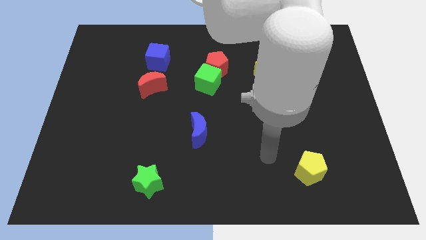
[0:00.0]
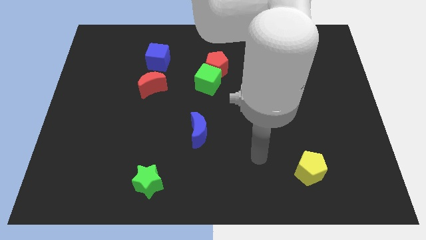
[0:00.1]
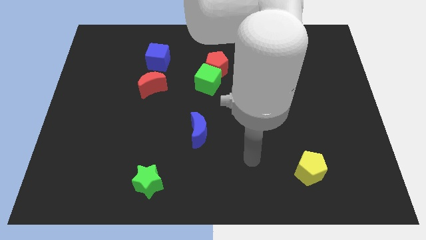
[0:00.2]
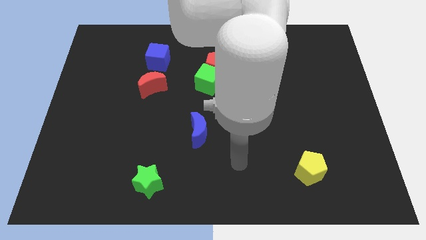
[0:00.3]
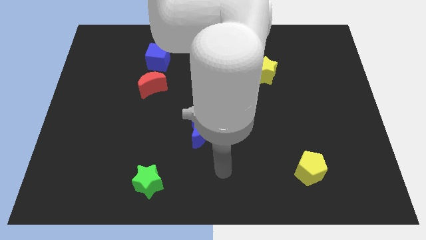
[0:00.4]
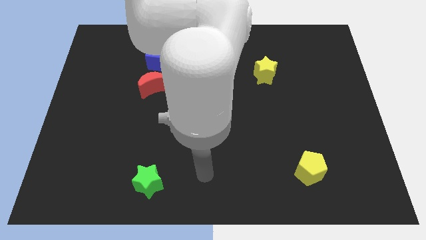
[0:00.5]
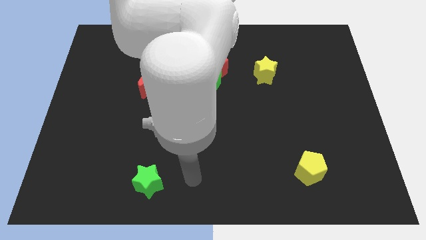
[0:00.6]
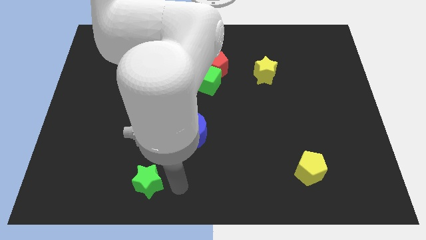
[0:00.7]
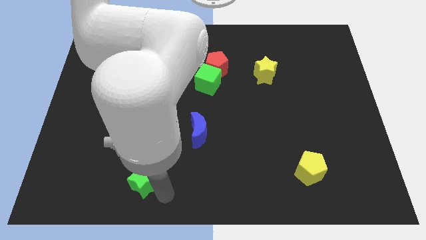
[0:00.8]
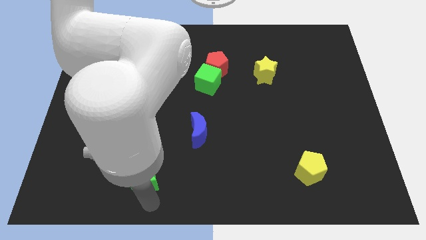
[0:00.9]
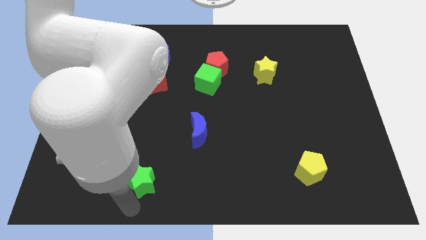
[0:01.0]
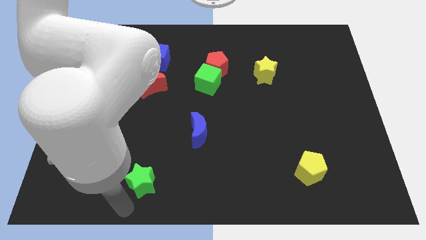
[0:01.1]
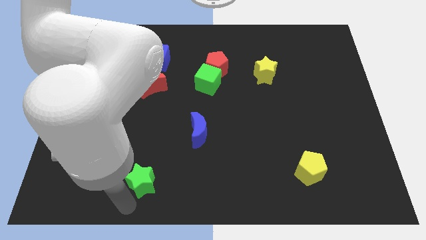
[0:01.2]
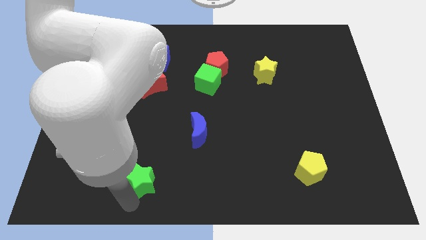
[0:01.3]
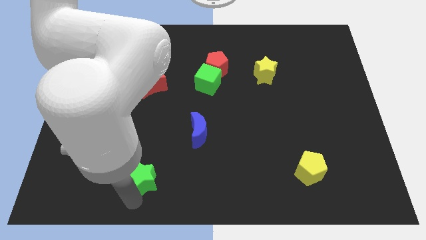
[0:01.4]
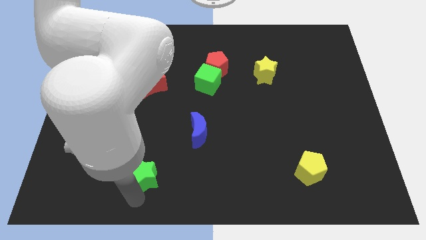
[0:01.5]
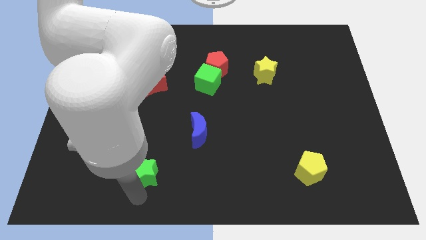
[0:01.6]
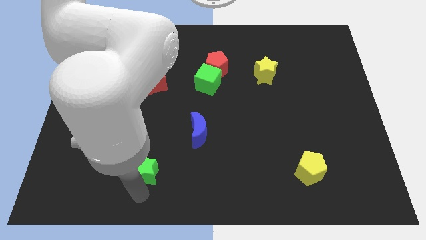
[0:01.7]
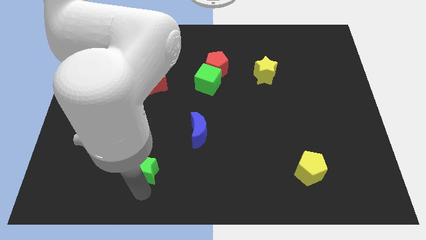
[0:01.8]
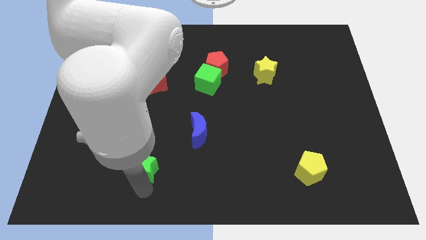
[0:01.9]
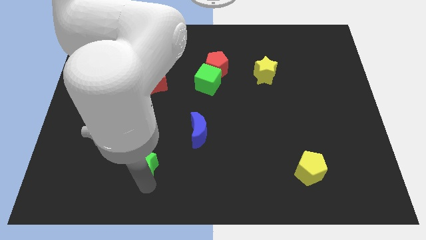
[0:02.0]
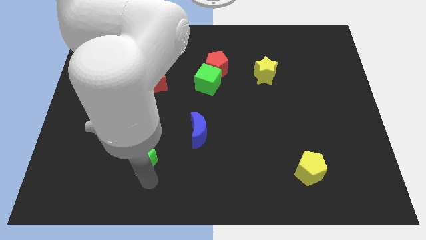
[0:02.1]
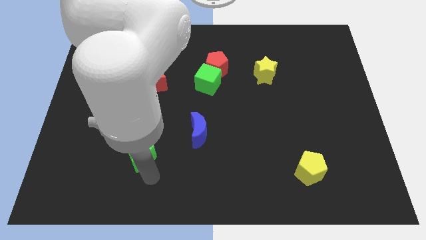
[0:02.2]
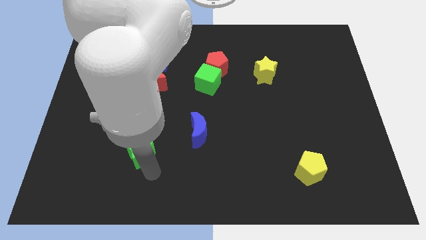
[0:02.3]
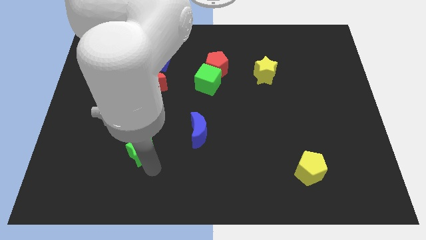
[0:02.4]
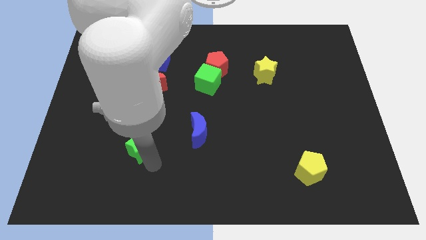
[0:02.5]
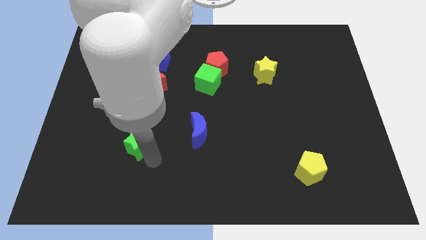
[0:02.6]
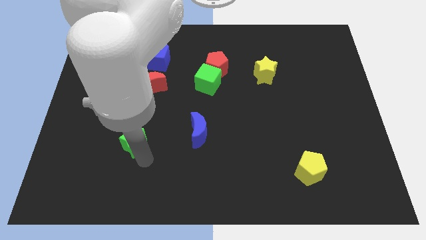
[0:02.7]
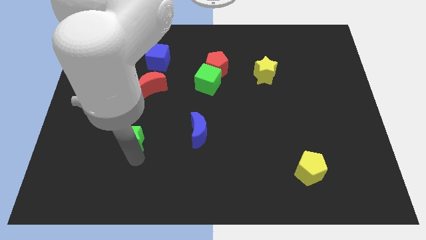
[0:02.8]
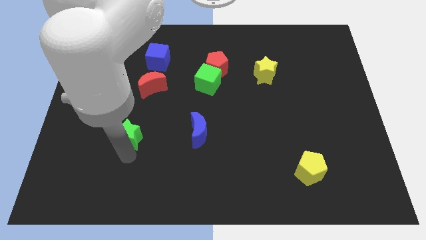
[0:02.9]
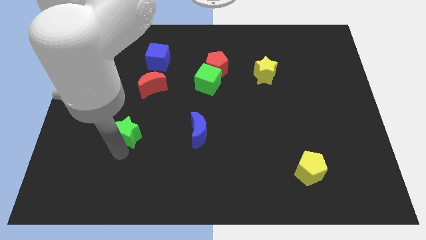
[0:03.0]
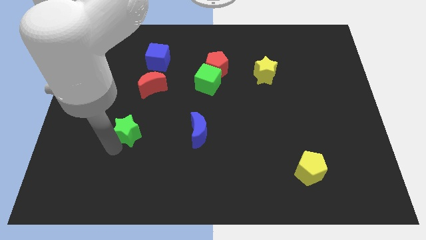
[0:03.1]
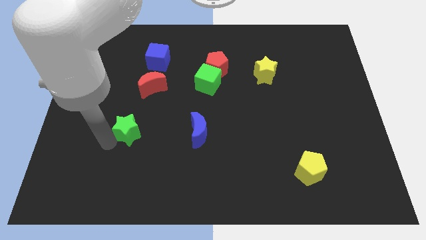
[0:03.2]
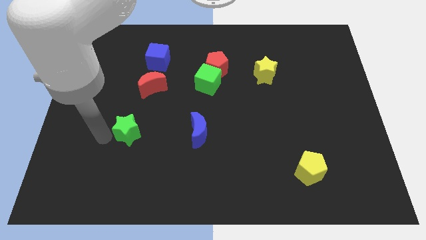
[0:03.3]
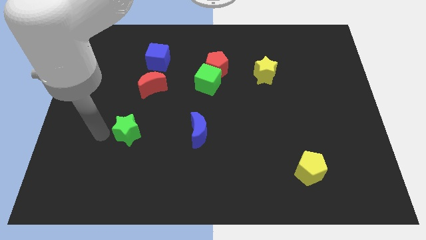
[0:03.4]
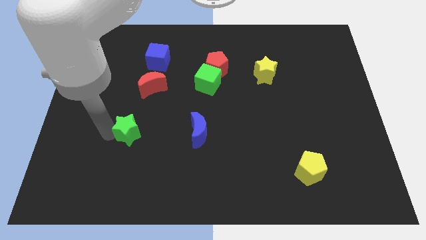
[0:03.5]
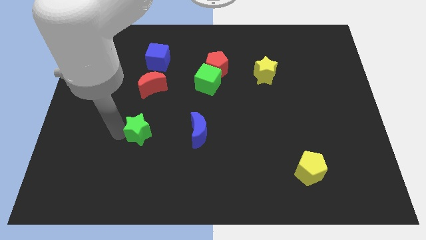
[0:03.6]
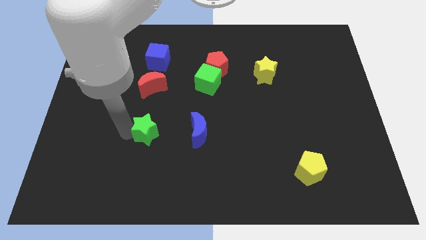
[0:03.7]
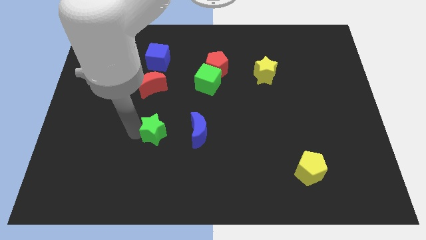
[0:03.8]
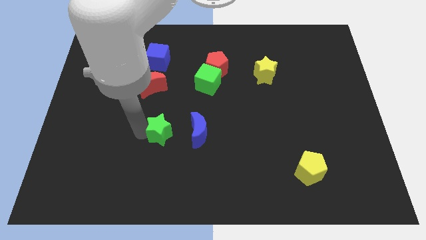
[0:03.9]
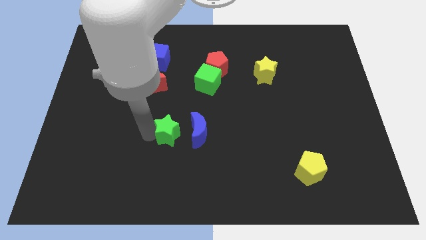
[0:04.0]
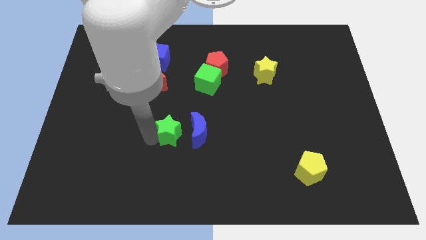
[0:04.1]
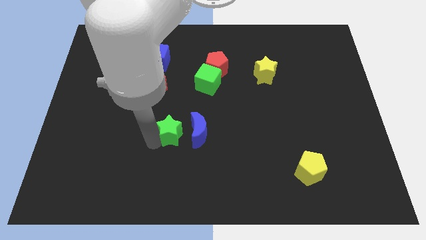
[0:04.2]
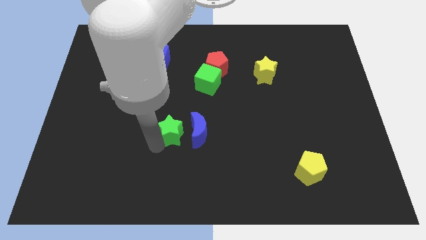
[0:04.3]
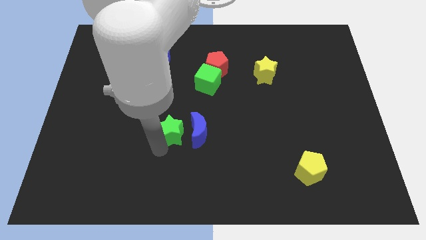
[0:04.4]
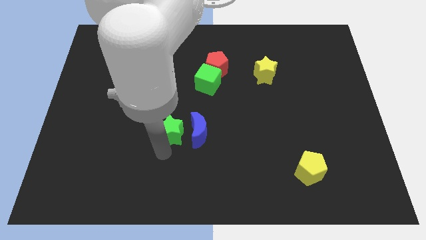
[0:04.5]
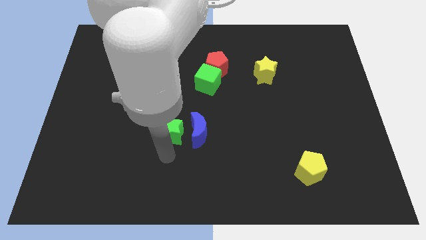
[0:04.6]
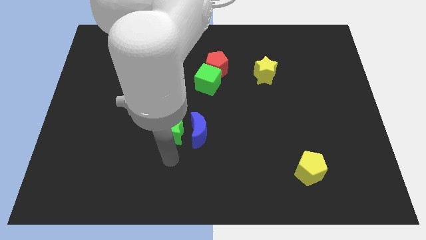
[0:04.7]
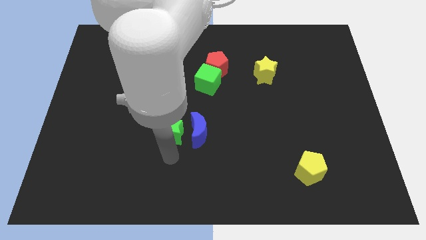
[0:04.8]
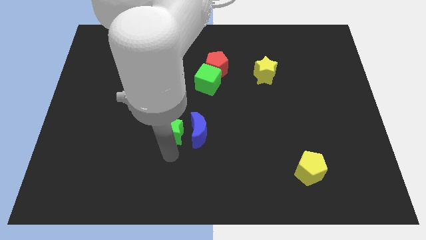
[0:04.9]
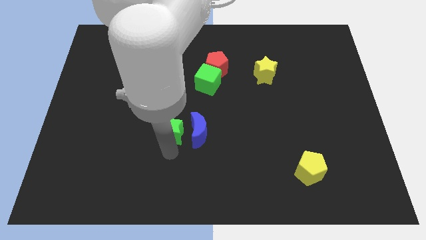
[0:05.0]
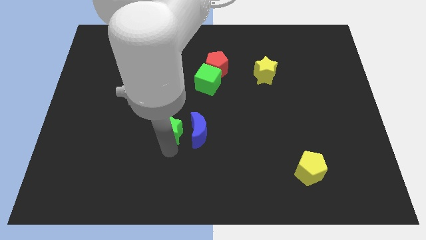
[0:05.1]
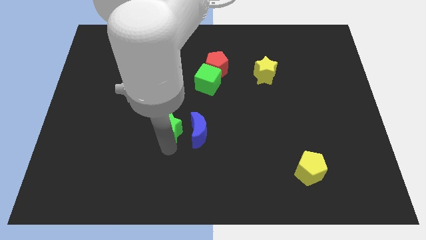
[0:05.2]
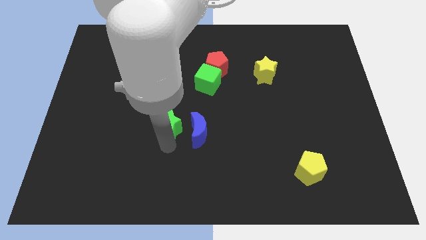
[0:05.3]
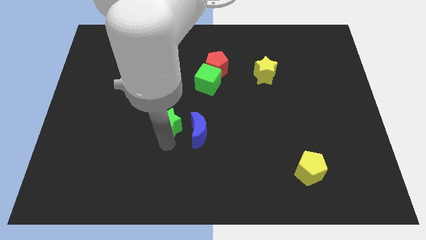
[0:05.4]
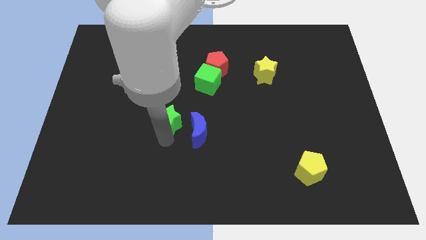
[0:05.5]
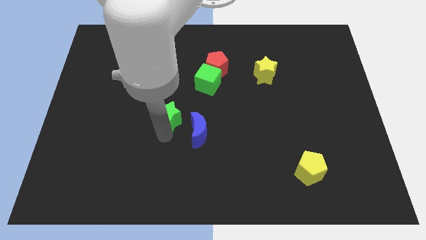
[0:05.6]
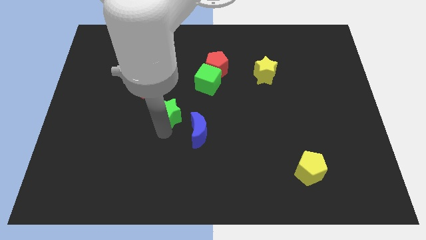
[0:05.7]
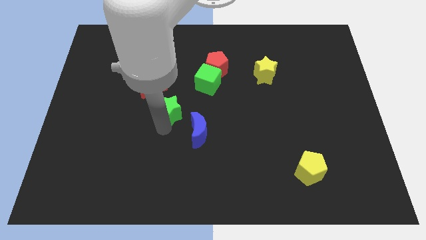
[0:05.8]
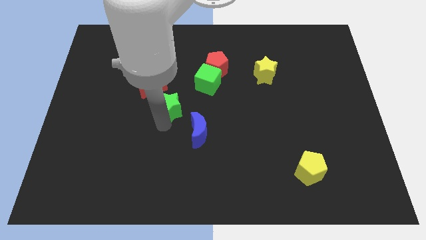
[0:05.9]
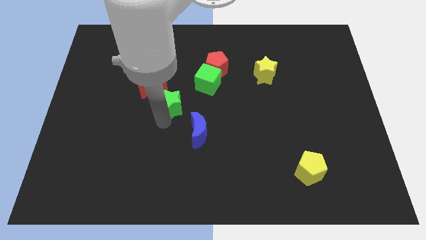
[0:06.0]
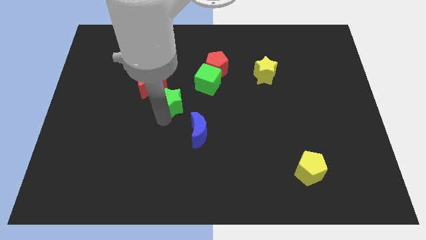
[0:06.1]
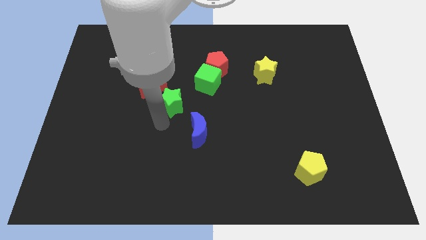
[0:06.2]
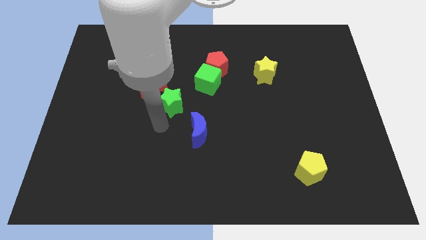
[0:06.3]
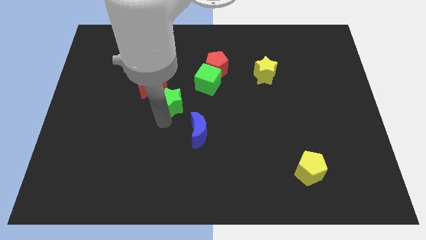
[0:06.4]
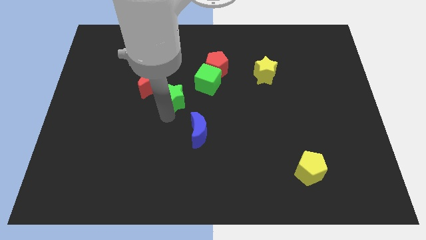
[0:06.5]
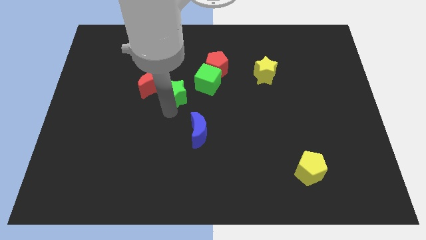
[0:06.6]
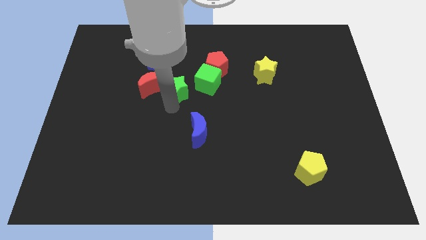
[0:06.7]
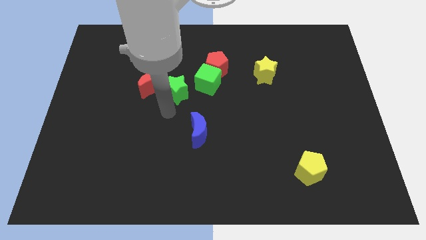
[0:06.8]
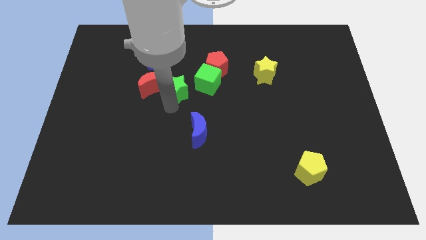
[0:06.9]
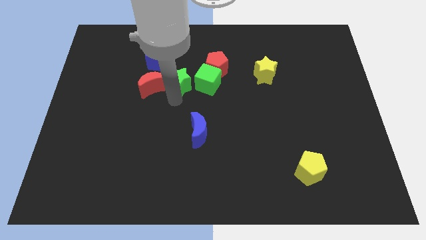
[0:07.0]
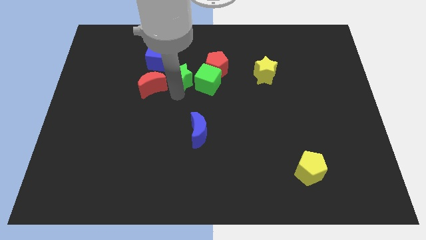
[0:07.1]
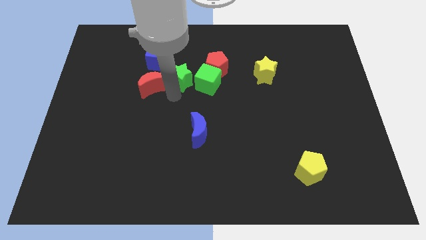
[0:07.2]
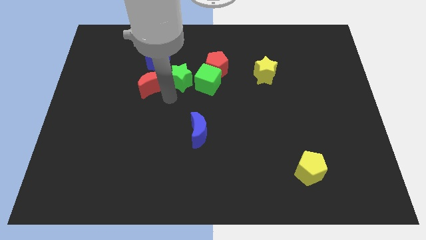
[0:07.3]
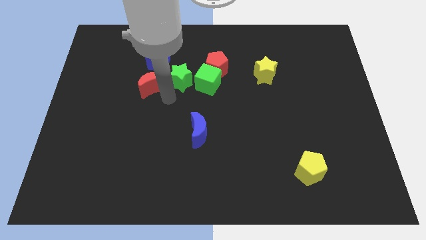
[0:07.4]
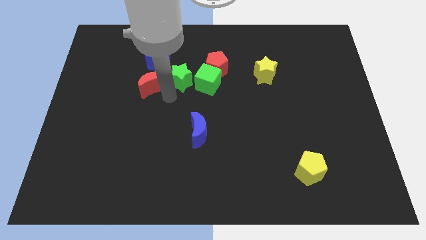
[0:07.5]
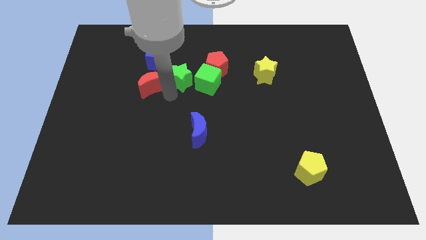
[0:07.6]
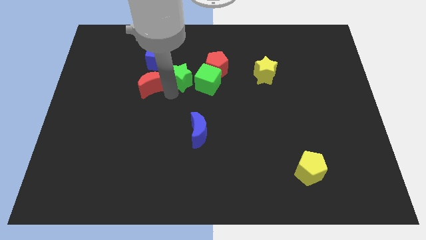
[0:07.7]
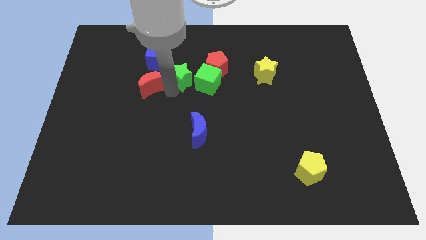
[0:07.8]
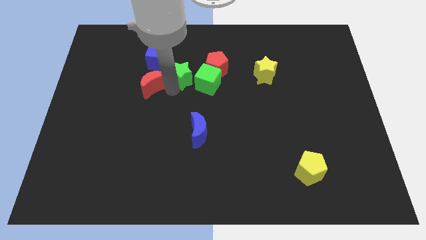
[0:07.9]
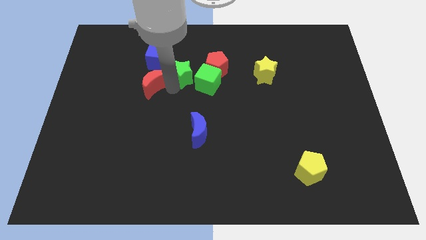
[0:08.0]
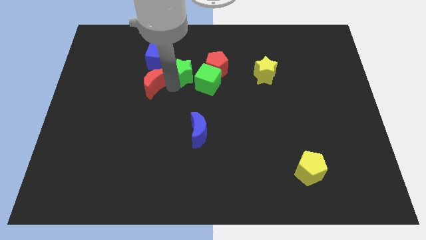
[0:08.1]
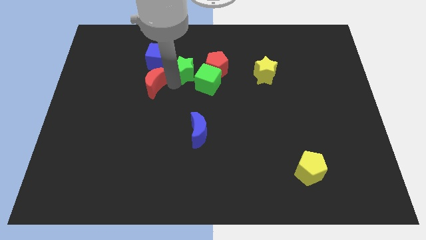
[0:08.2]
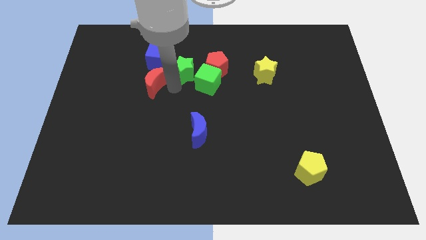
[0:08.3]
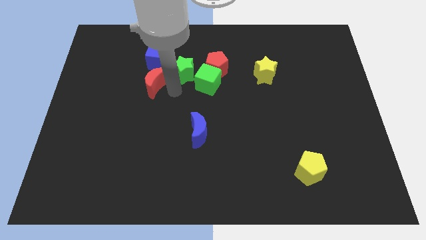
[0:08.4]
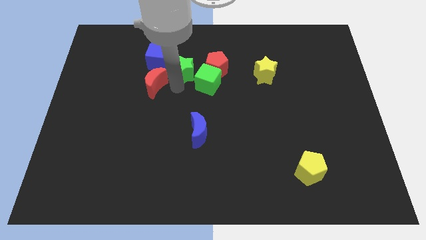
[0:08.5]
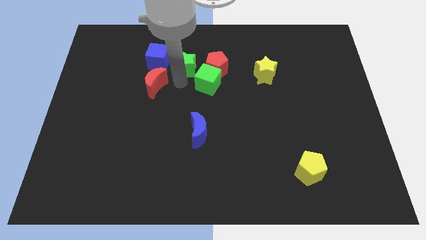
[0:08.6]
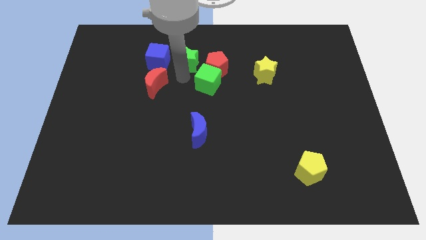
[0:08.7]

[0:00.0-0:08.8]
push the green star to the top left side of the red pentagon
